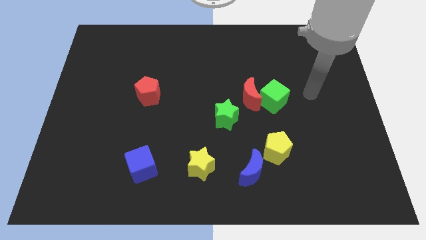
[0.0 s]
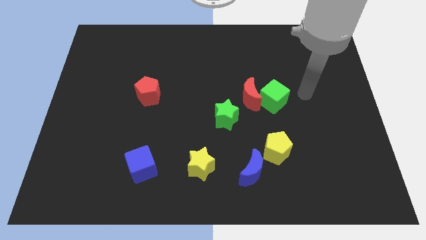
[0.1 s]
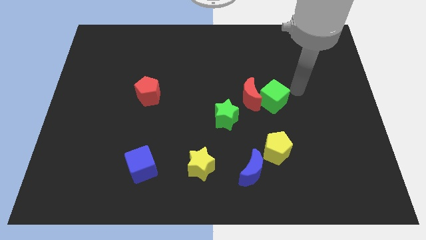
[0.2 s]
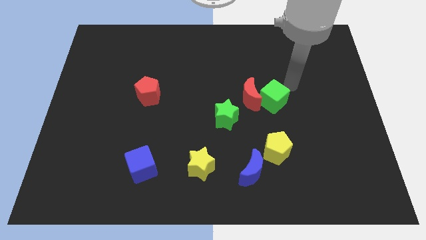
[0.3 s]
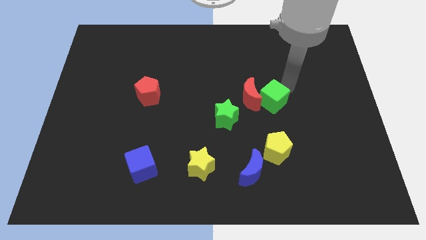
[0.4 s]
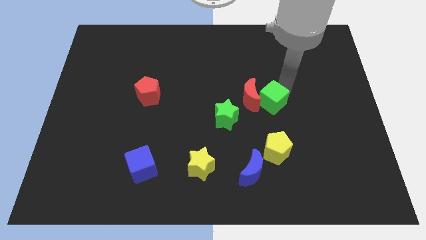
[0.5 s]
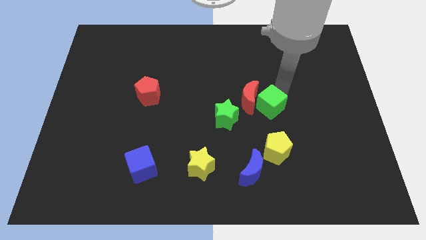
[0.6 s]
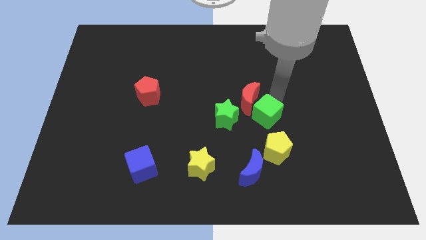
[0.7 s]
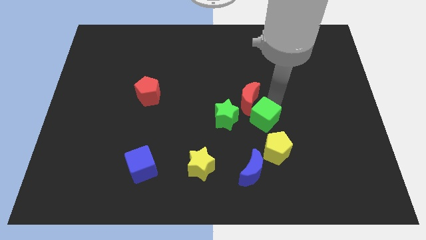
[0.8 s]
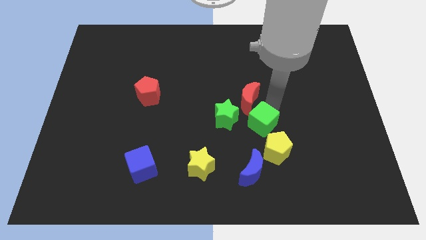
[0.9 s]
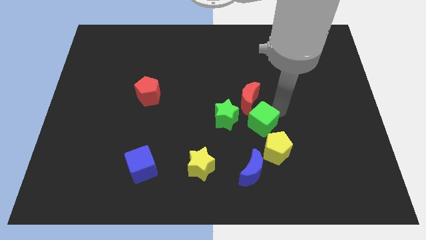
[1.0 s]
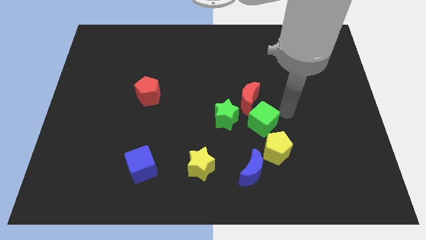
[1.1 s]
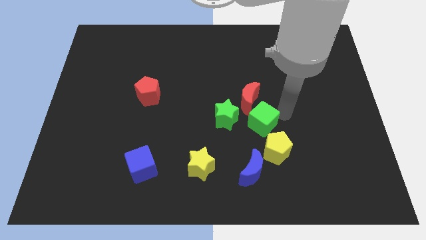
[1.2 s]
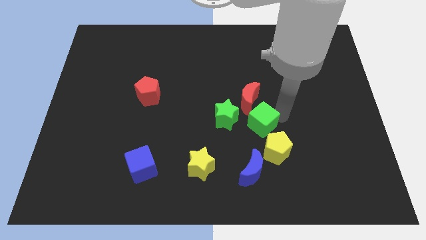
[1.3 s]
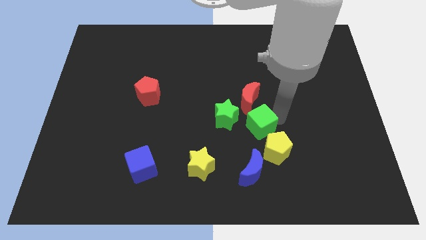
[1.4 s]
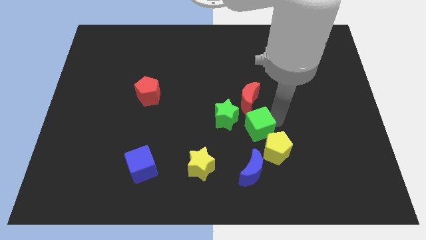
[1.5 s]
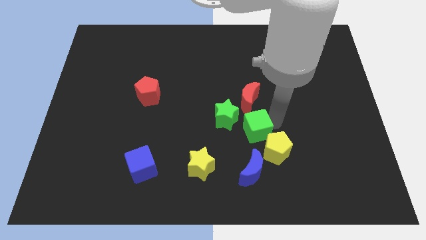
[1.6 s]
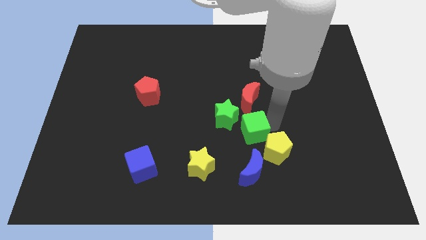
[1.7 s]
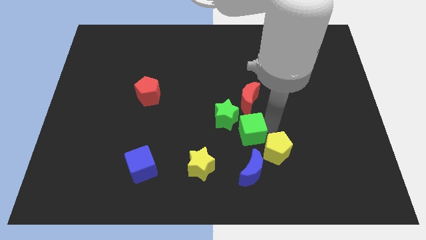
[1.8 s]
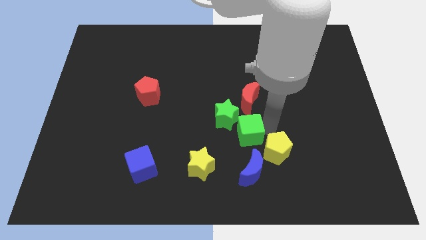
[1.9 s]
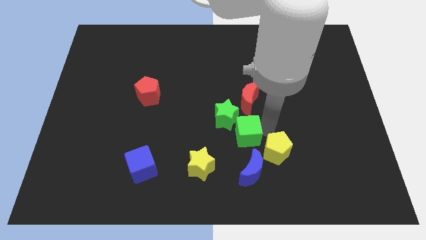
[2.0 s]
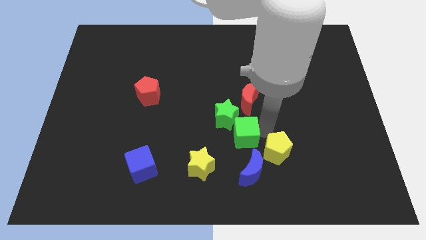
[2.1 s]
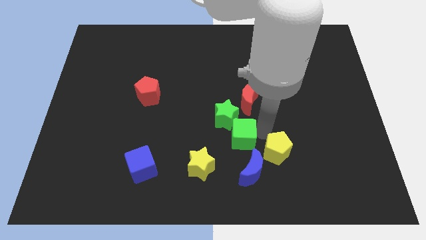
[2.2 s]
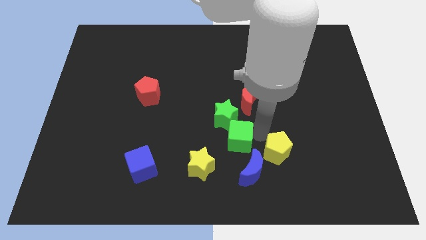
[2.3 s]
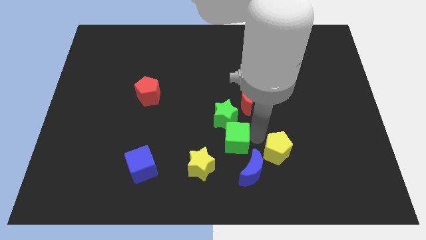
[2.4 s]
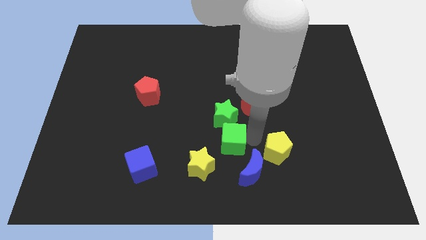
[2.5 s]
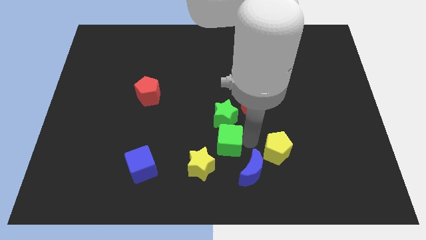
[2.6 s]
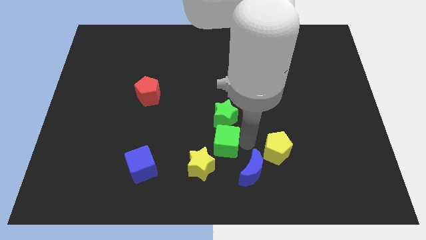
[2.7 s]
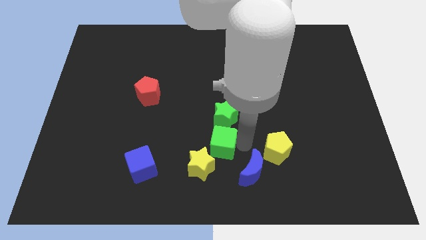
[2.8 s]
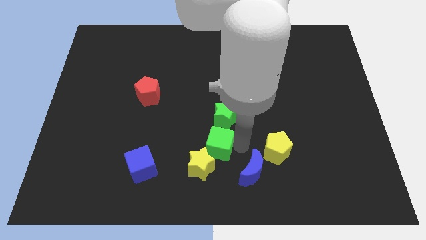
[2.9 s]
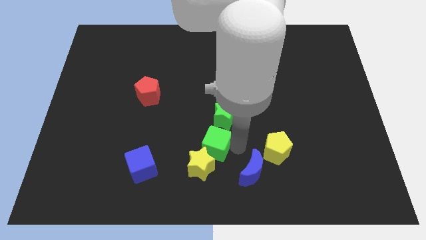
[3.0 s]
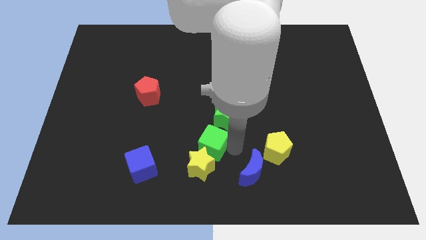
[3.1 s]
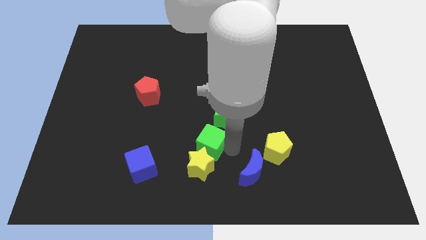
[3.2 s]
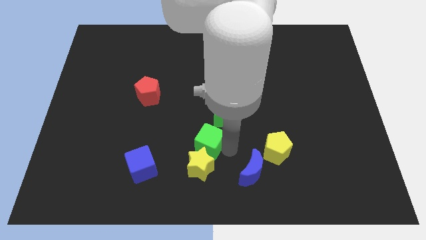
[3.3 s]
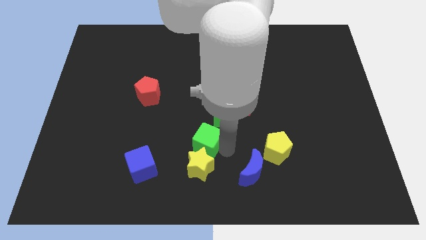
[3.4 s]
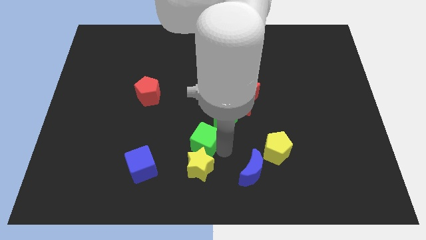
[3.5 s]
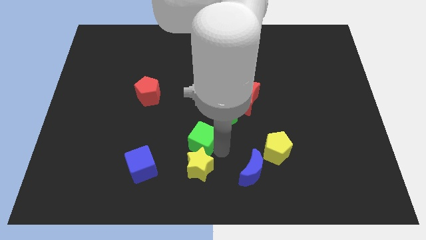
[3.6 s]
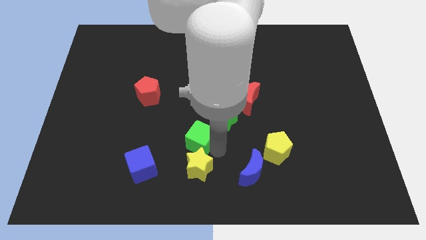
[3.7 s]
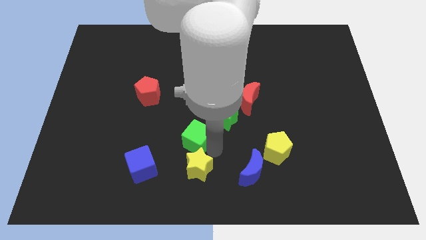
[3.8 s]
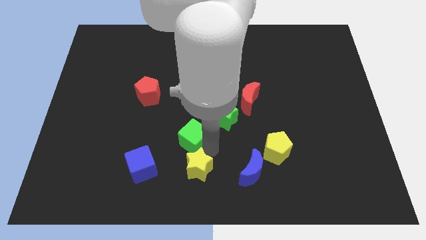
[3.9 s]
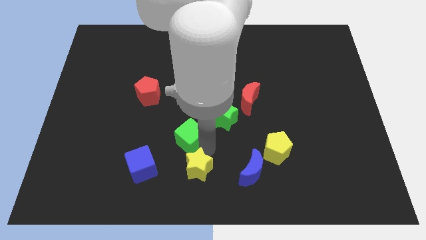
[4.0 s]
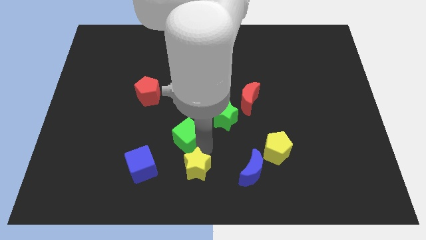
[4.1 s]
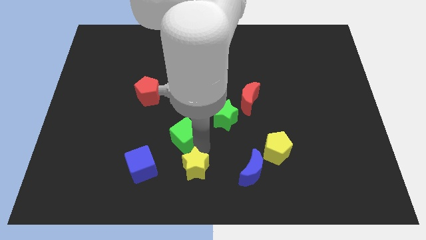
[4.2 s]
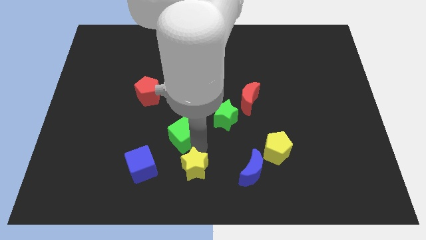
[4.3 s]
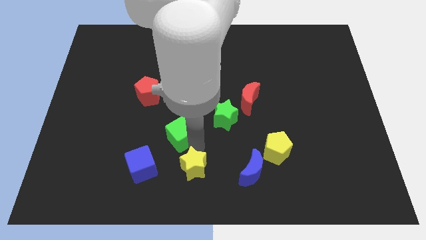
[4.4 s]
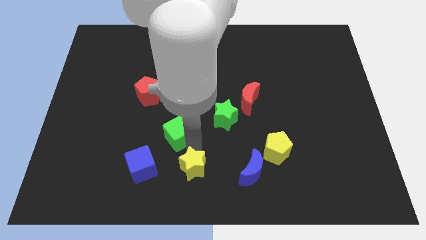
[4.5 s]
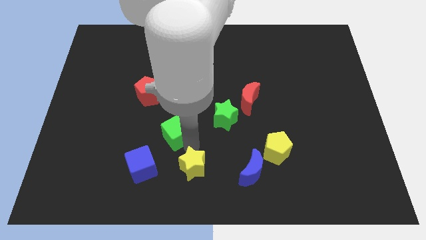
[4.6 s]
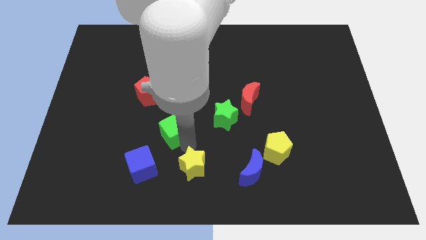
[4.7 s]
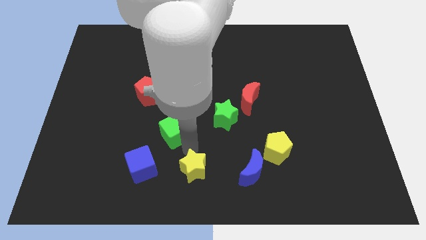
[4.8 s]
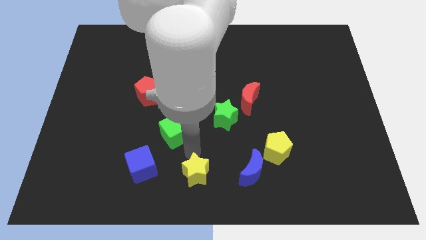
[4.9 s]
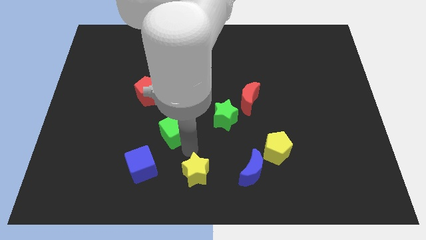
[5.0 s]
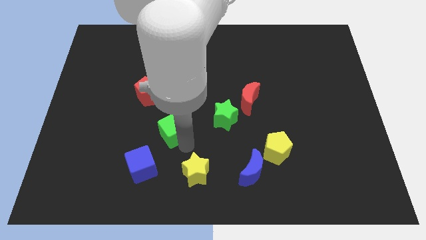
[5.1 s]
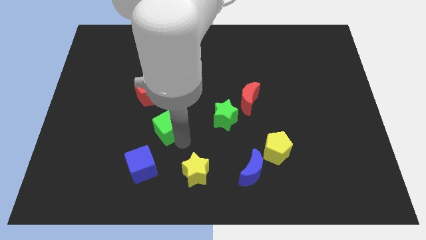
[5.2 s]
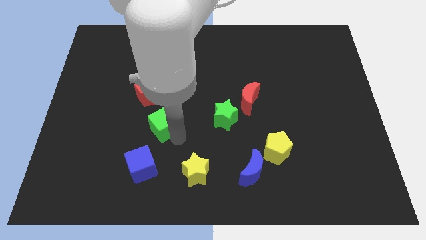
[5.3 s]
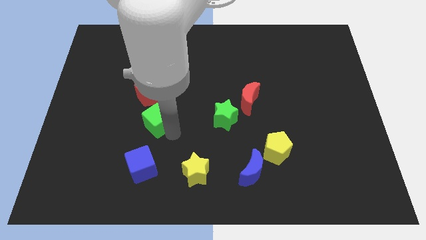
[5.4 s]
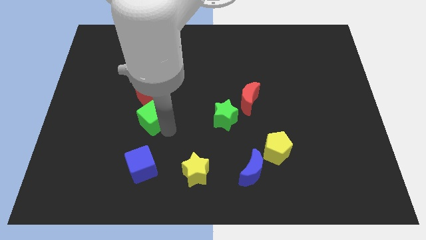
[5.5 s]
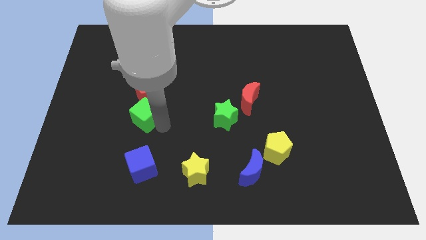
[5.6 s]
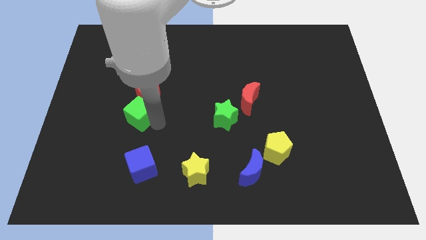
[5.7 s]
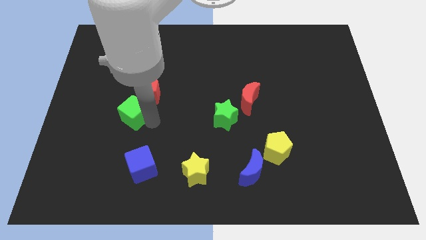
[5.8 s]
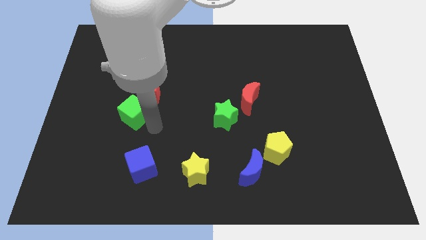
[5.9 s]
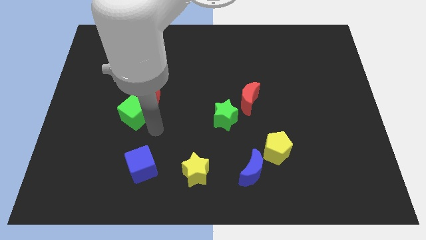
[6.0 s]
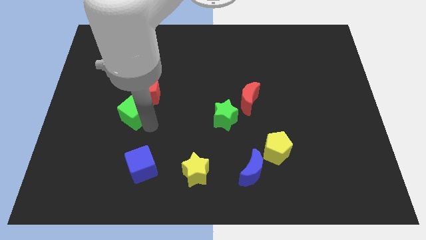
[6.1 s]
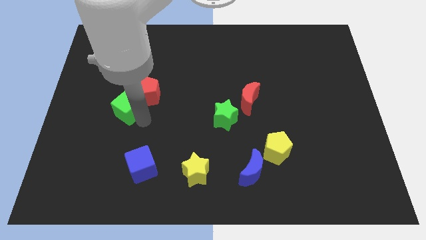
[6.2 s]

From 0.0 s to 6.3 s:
slide the green cube to the left side of the red pentagon
